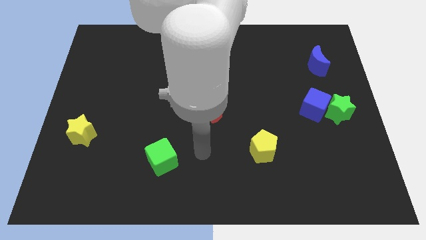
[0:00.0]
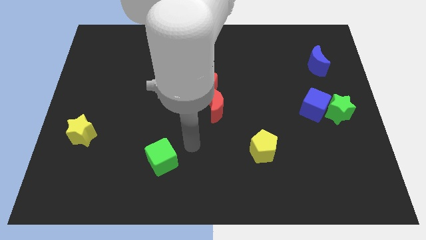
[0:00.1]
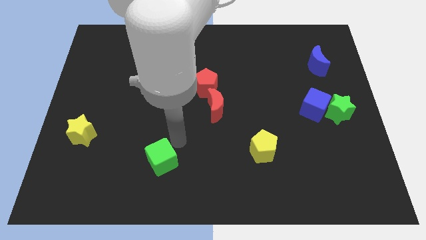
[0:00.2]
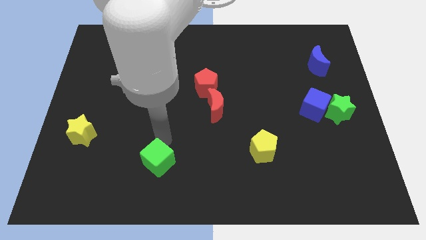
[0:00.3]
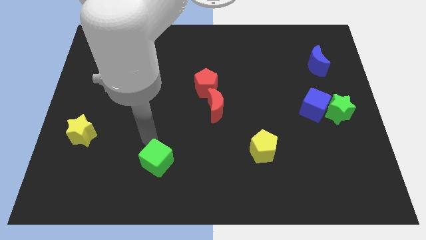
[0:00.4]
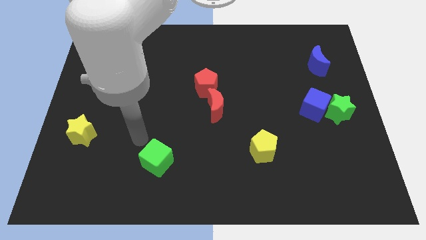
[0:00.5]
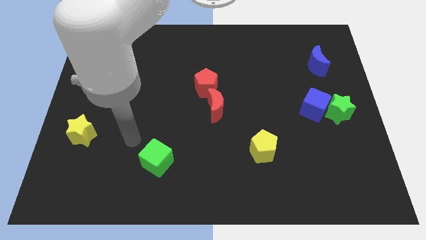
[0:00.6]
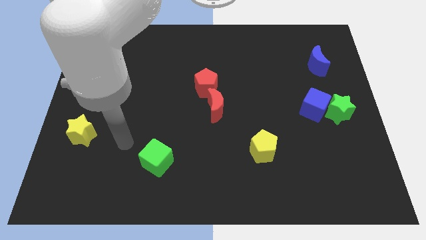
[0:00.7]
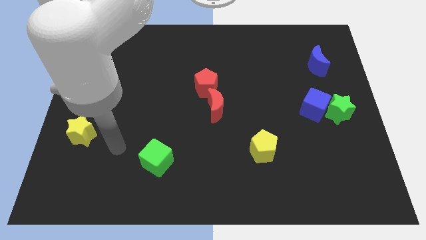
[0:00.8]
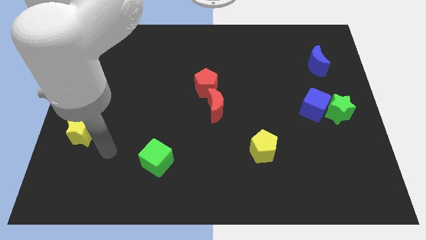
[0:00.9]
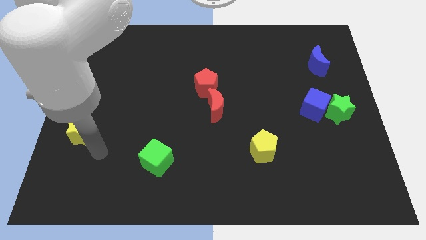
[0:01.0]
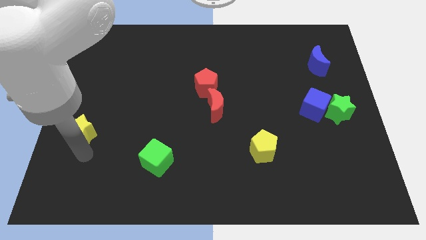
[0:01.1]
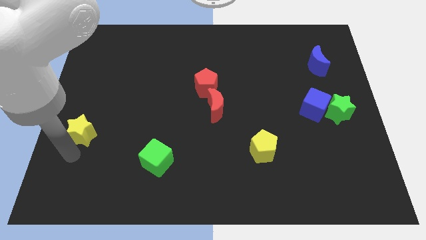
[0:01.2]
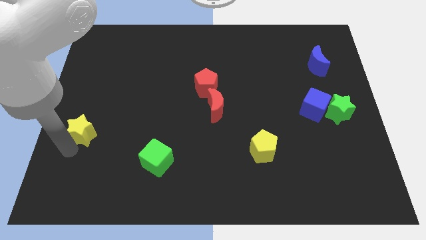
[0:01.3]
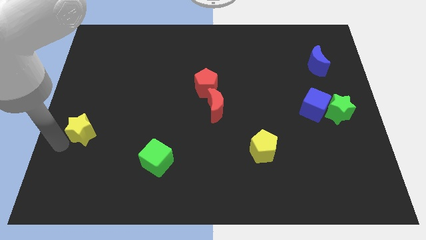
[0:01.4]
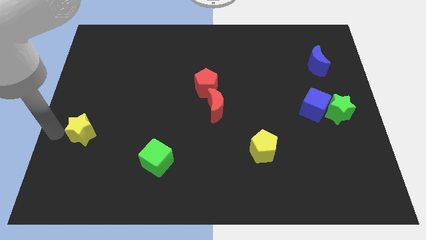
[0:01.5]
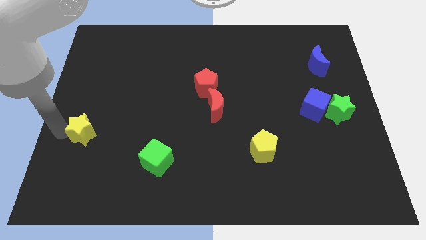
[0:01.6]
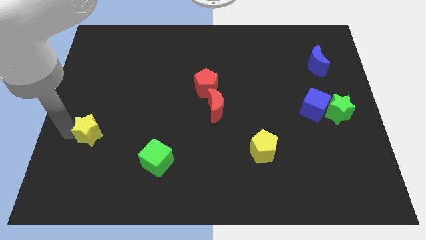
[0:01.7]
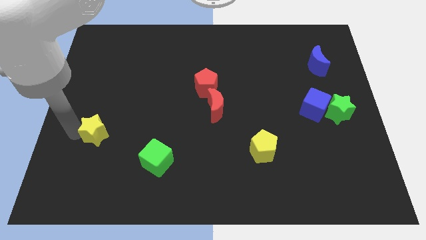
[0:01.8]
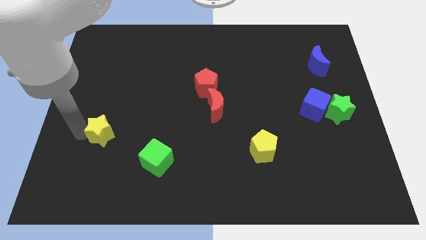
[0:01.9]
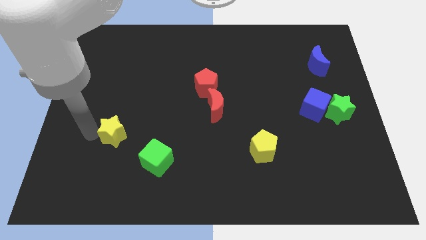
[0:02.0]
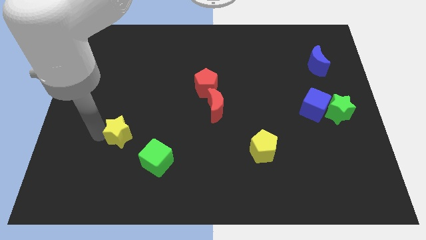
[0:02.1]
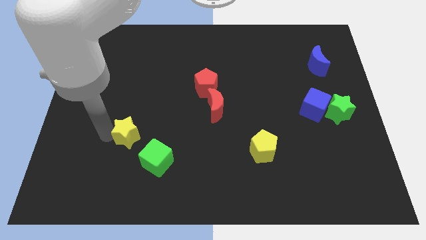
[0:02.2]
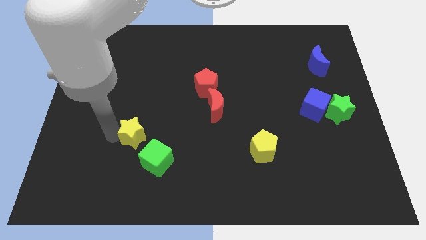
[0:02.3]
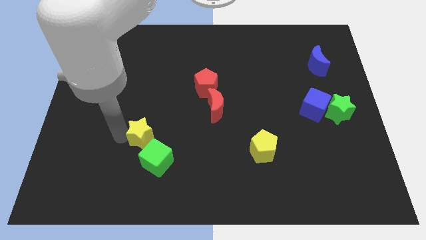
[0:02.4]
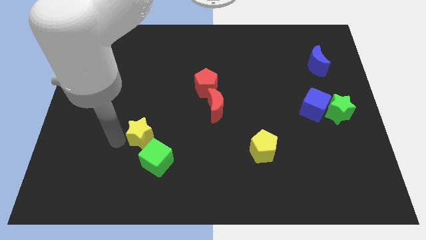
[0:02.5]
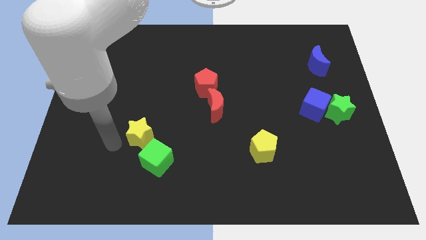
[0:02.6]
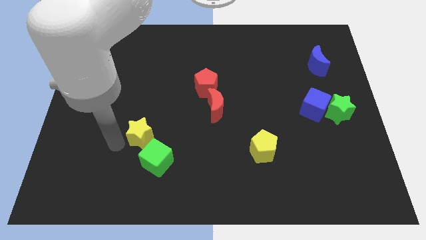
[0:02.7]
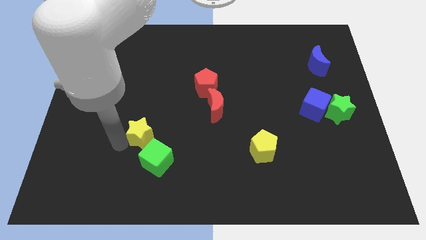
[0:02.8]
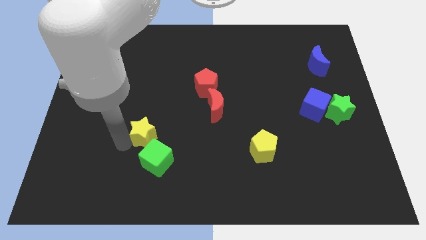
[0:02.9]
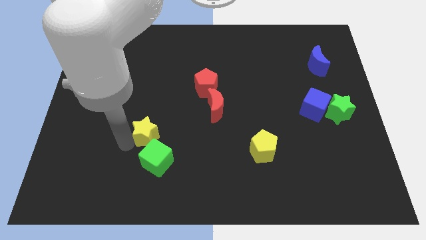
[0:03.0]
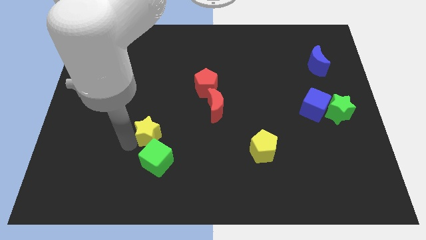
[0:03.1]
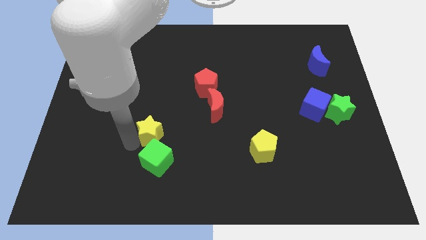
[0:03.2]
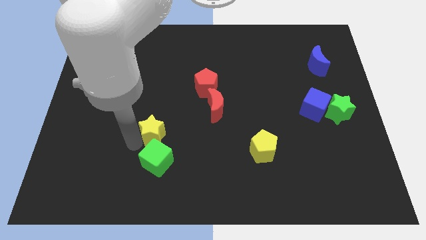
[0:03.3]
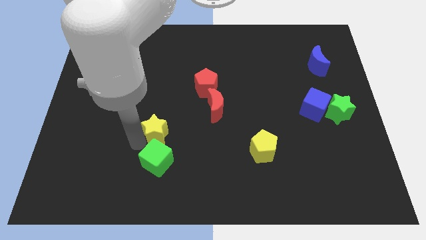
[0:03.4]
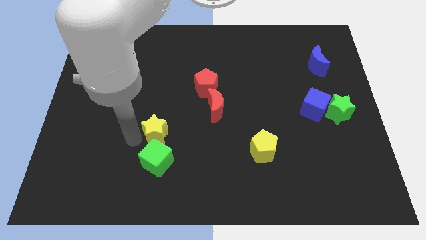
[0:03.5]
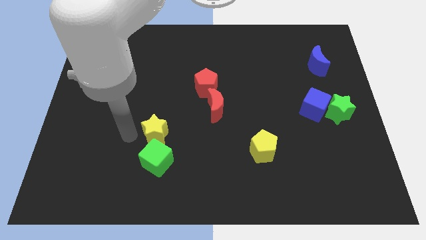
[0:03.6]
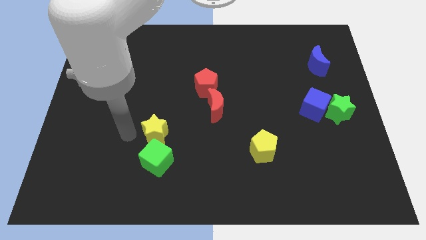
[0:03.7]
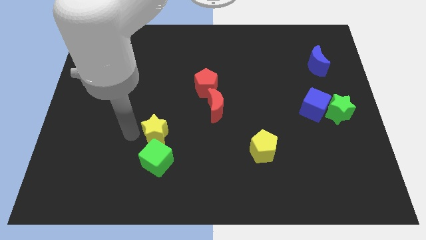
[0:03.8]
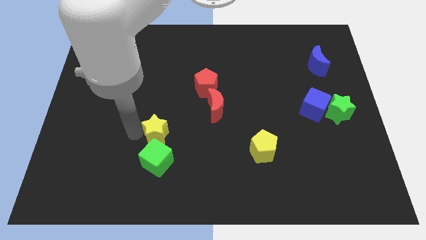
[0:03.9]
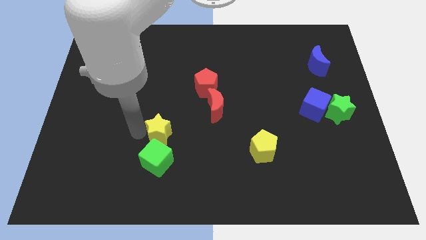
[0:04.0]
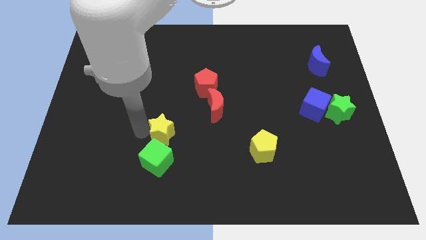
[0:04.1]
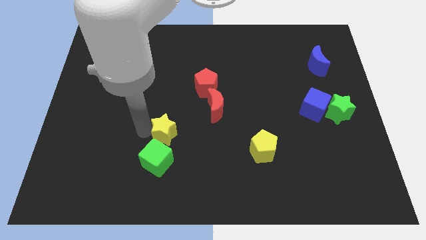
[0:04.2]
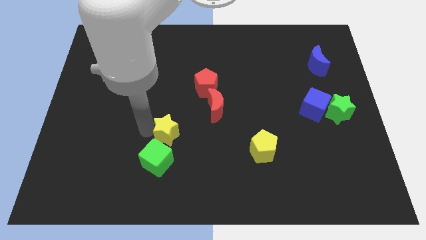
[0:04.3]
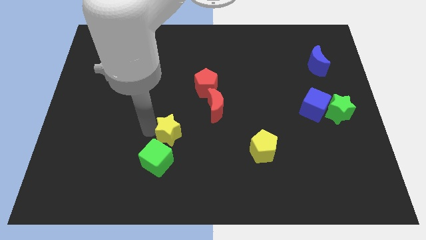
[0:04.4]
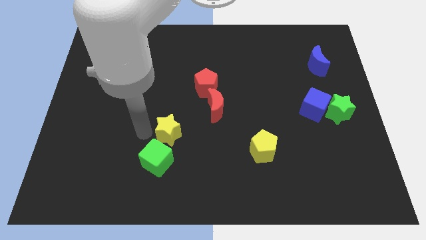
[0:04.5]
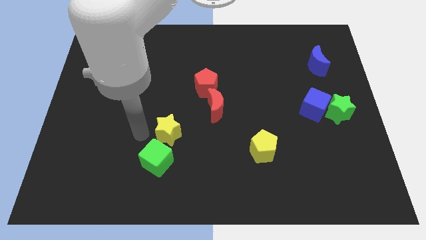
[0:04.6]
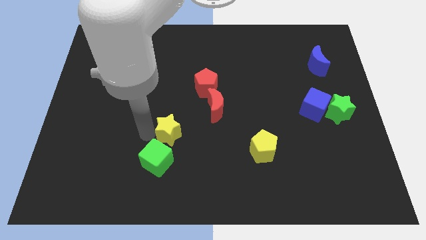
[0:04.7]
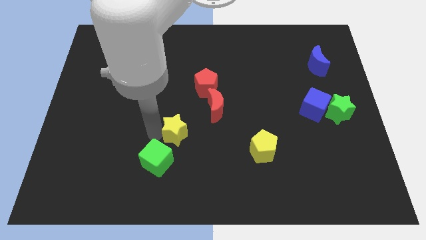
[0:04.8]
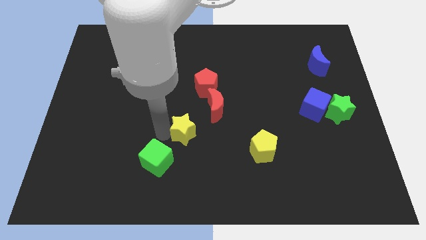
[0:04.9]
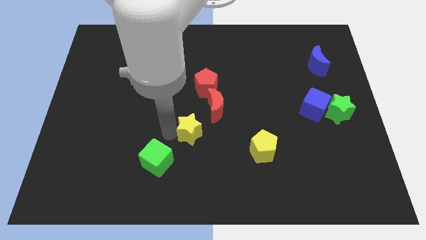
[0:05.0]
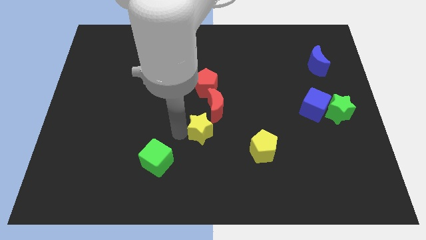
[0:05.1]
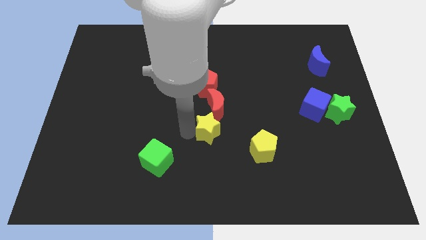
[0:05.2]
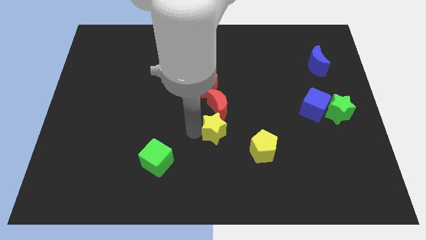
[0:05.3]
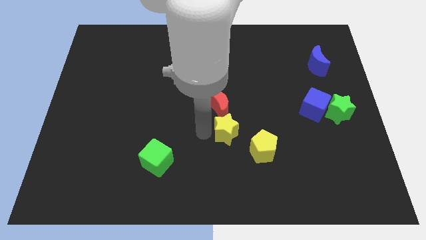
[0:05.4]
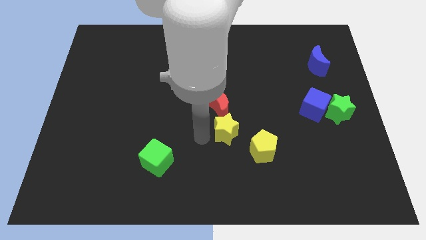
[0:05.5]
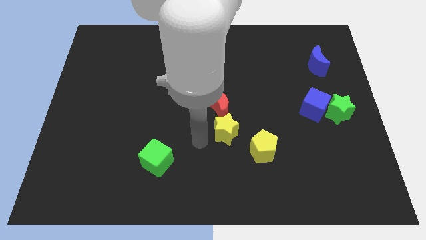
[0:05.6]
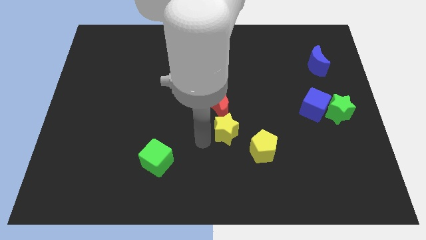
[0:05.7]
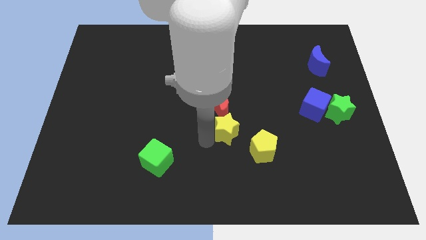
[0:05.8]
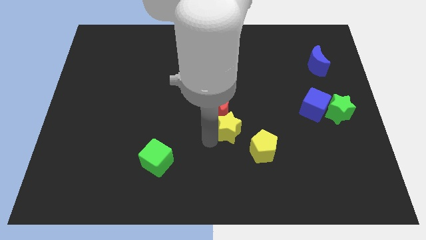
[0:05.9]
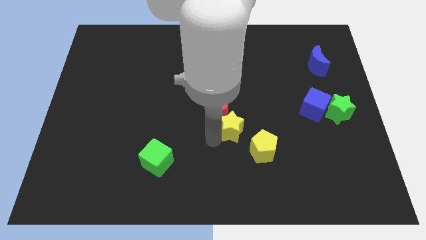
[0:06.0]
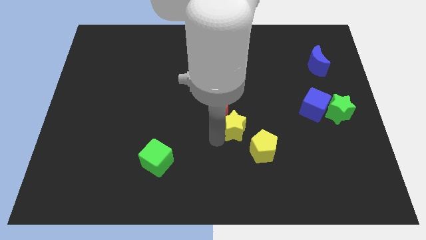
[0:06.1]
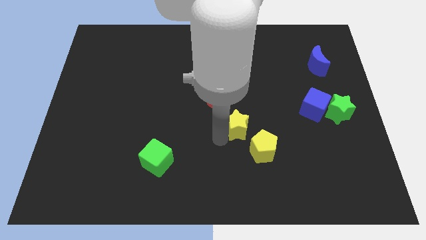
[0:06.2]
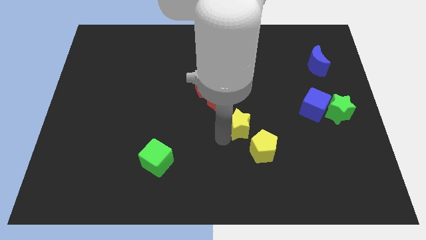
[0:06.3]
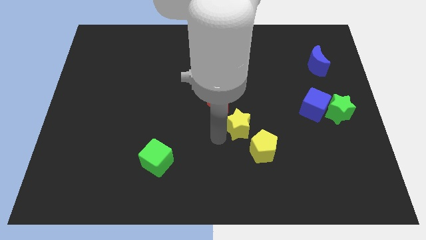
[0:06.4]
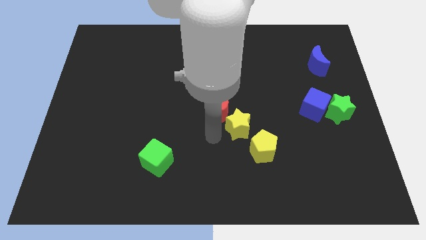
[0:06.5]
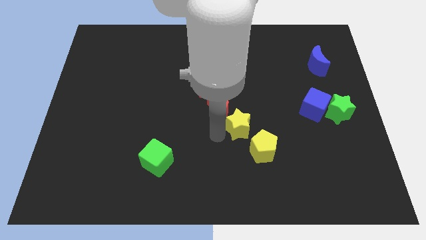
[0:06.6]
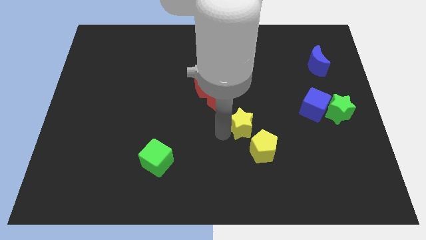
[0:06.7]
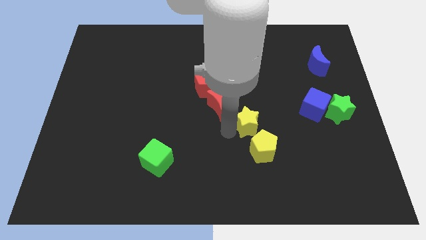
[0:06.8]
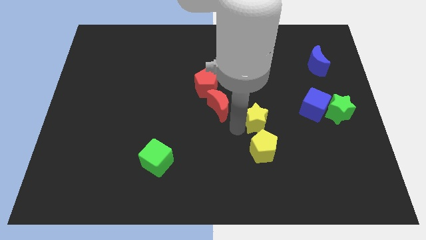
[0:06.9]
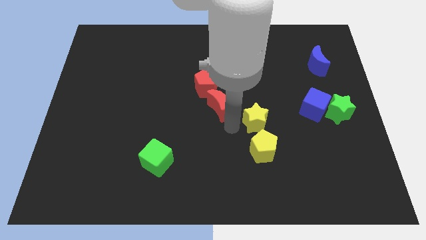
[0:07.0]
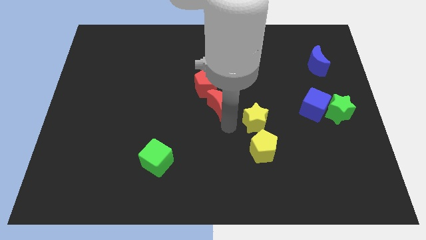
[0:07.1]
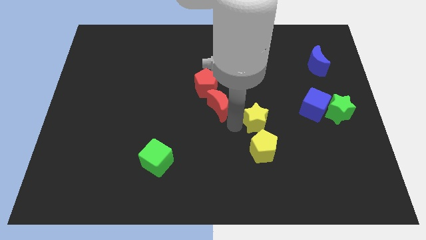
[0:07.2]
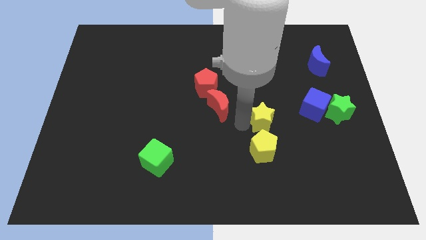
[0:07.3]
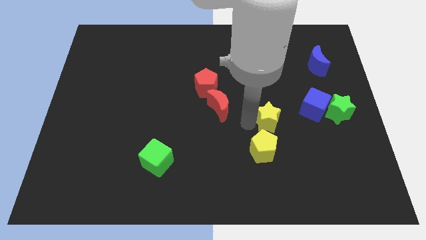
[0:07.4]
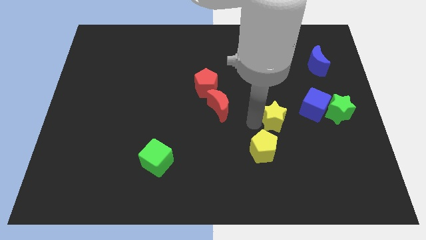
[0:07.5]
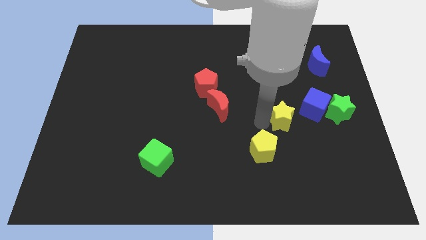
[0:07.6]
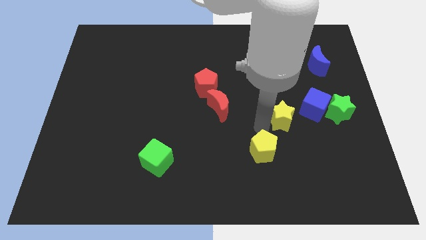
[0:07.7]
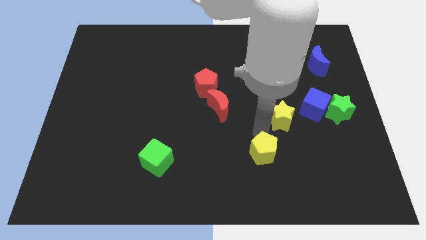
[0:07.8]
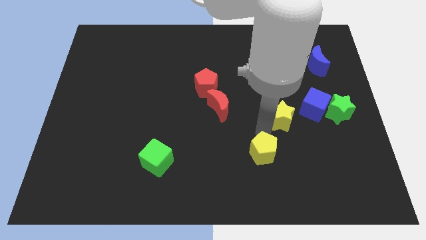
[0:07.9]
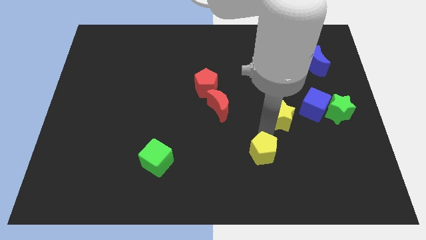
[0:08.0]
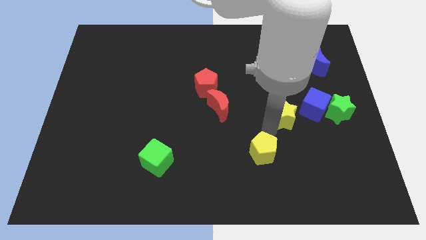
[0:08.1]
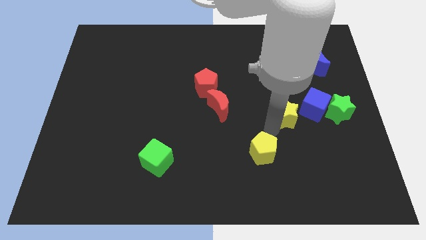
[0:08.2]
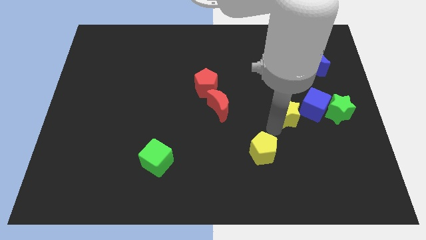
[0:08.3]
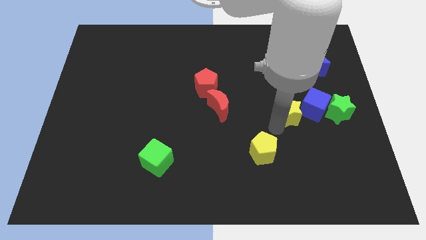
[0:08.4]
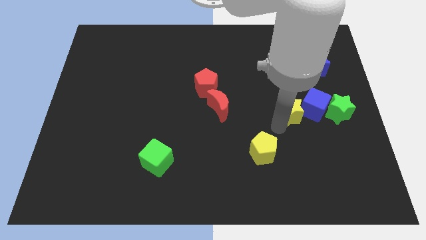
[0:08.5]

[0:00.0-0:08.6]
slide the yellow star to the blue cube
